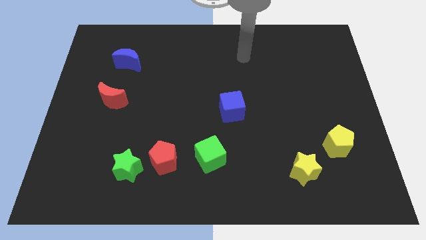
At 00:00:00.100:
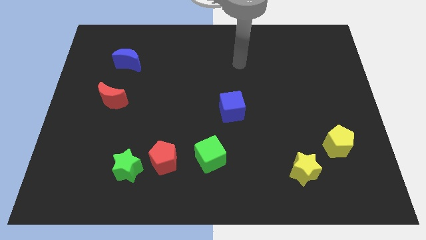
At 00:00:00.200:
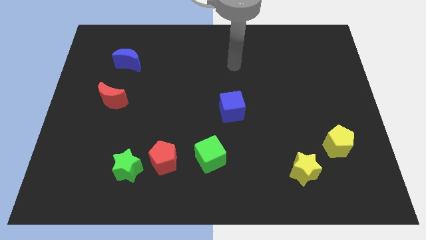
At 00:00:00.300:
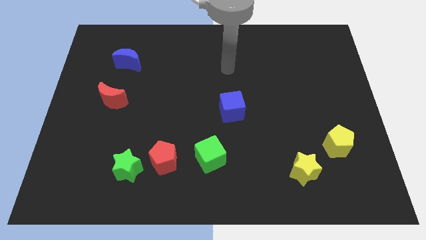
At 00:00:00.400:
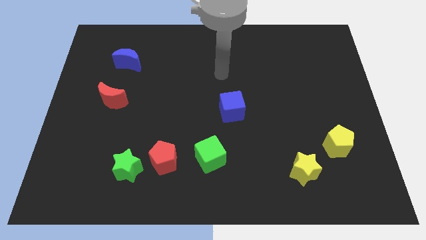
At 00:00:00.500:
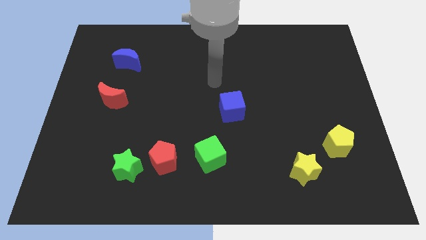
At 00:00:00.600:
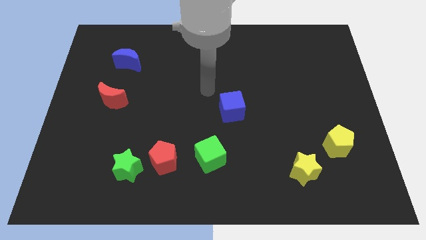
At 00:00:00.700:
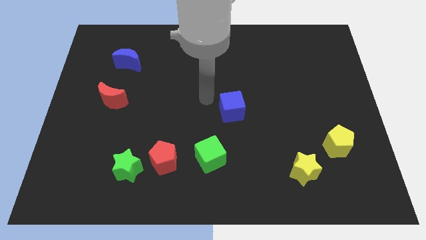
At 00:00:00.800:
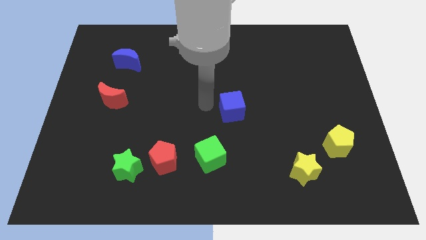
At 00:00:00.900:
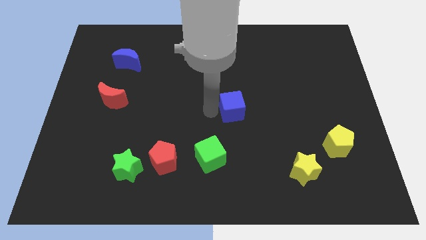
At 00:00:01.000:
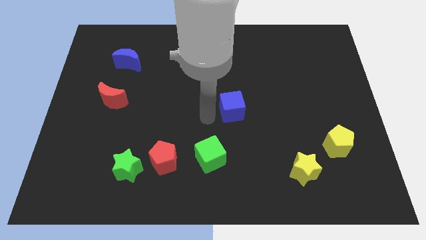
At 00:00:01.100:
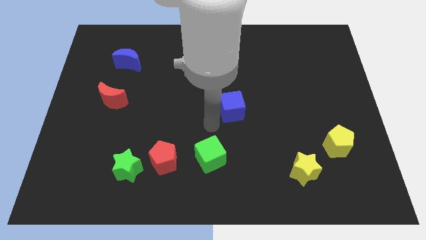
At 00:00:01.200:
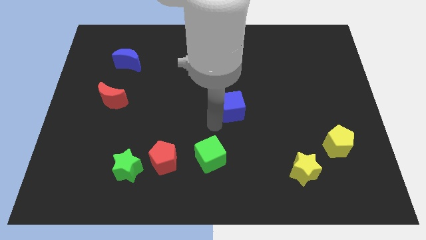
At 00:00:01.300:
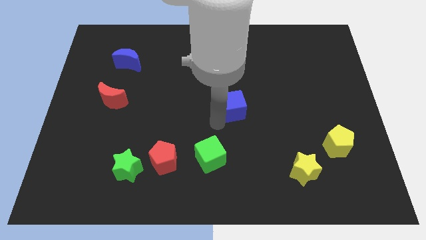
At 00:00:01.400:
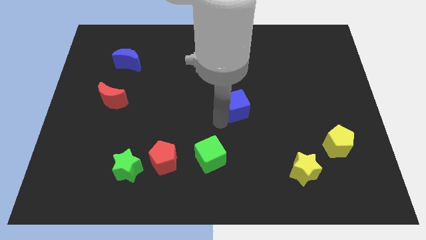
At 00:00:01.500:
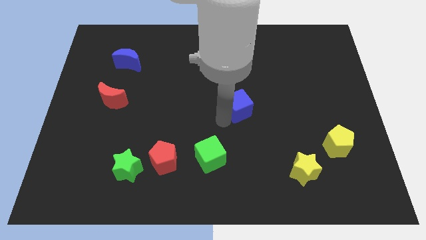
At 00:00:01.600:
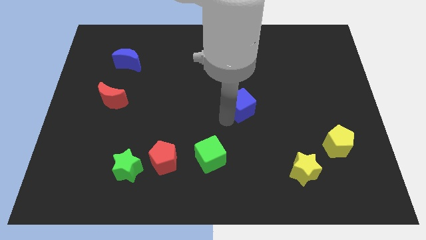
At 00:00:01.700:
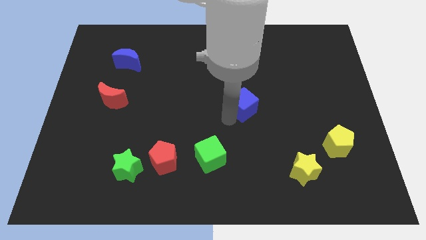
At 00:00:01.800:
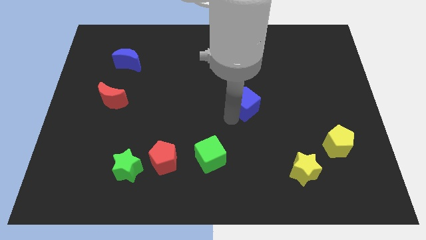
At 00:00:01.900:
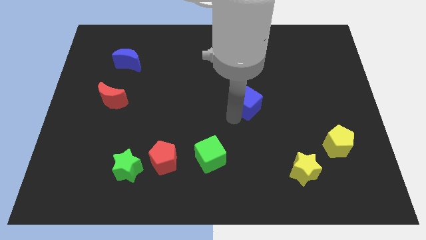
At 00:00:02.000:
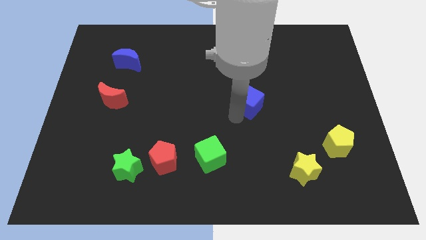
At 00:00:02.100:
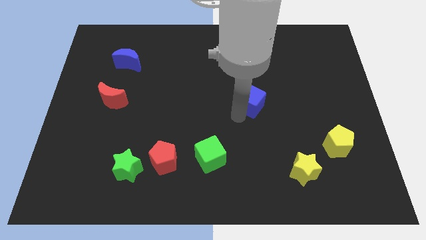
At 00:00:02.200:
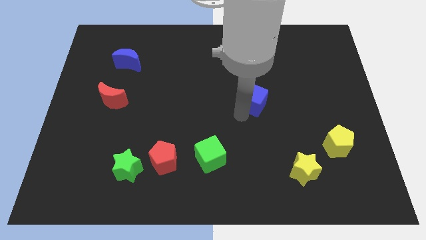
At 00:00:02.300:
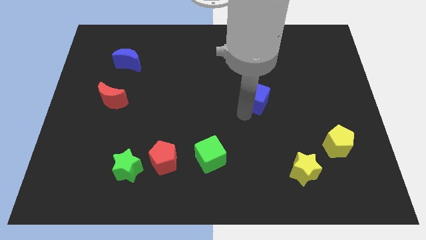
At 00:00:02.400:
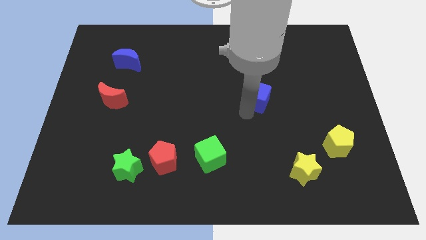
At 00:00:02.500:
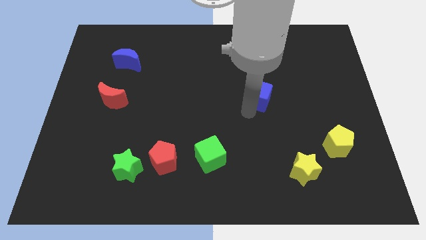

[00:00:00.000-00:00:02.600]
push the blue cube up and right a little bit

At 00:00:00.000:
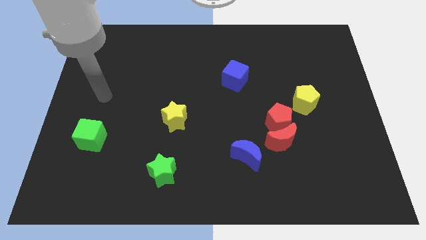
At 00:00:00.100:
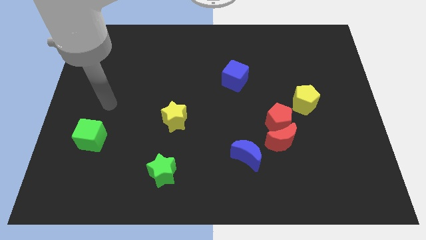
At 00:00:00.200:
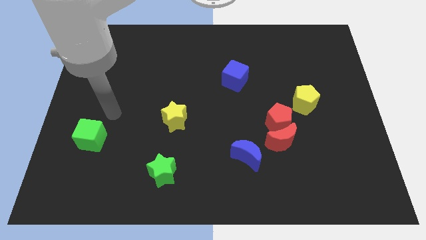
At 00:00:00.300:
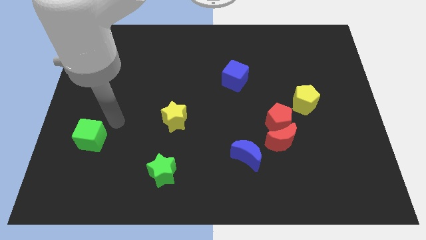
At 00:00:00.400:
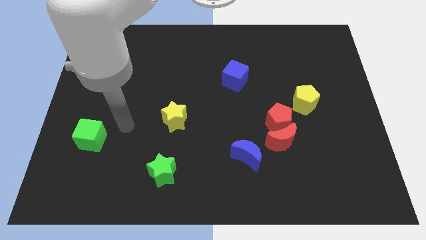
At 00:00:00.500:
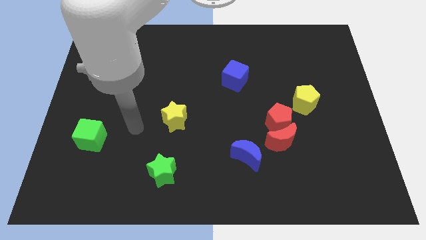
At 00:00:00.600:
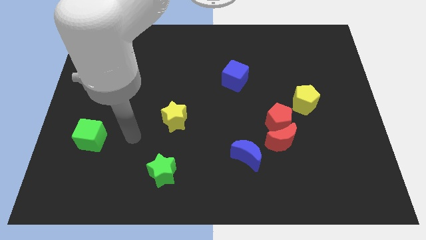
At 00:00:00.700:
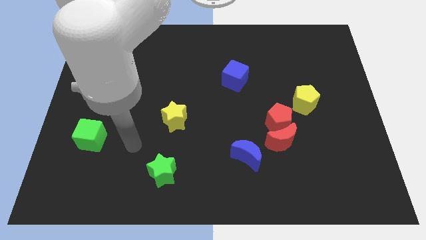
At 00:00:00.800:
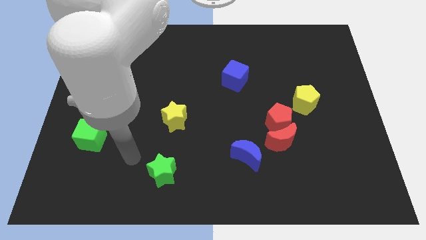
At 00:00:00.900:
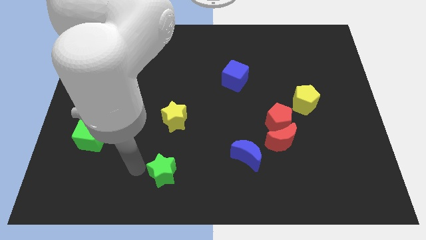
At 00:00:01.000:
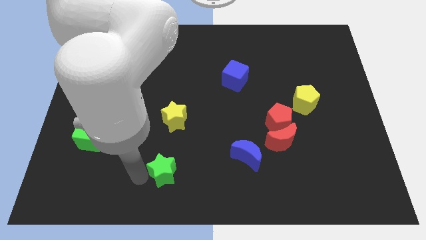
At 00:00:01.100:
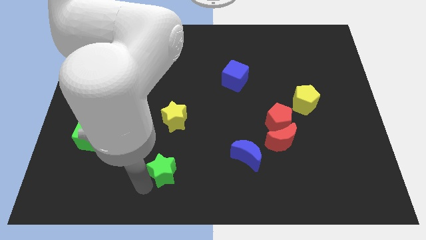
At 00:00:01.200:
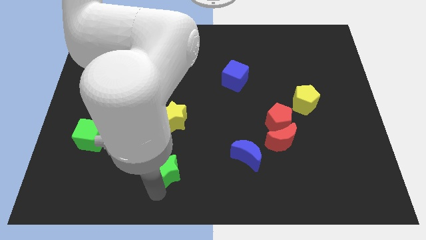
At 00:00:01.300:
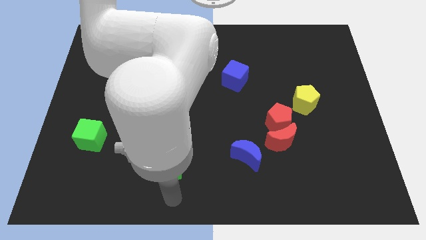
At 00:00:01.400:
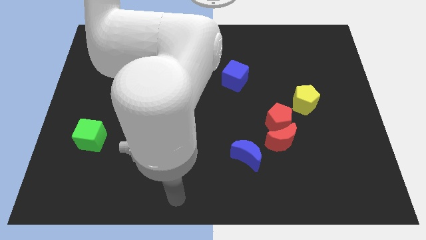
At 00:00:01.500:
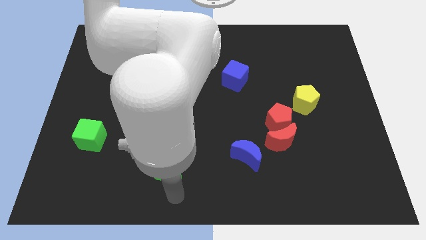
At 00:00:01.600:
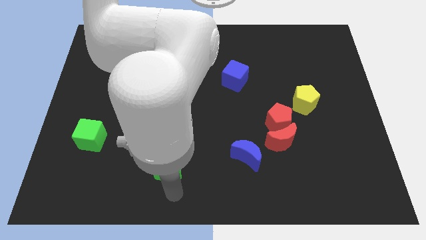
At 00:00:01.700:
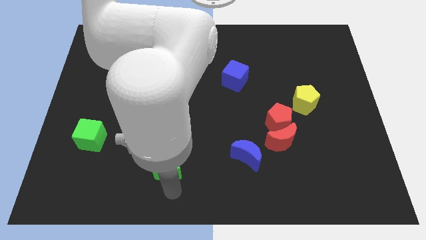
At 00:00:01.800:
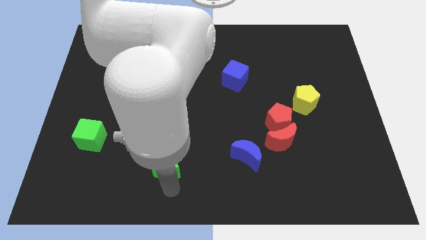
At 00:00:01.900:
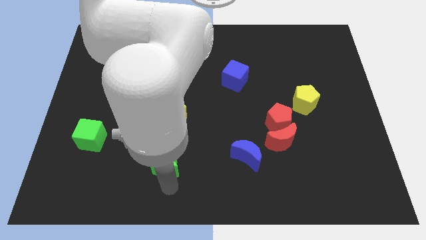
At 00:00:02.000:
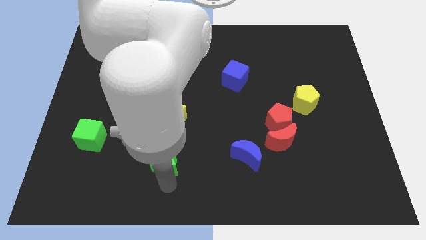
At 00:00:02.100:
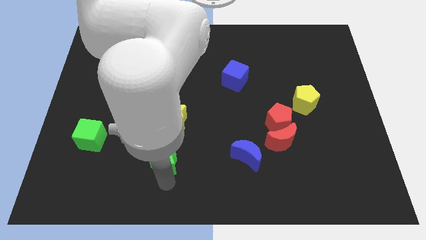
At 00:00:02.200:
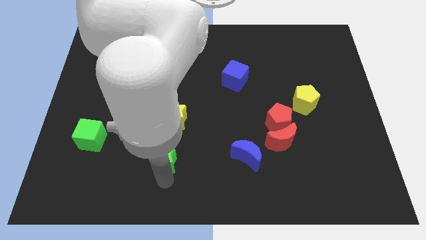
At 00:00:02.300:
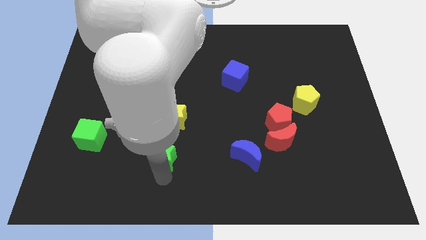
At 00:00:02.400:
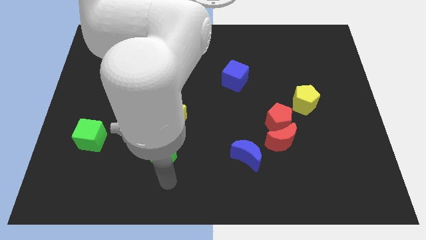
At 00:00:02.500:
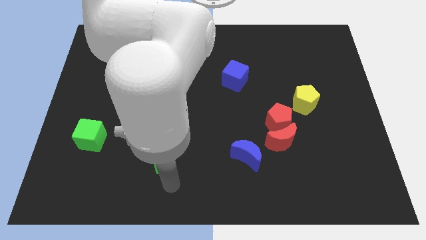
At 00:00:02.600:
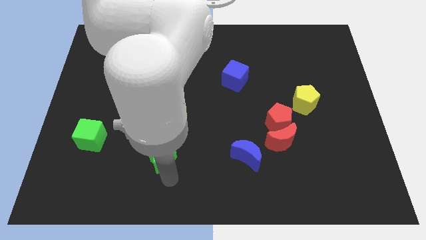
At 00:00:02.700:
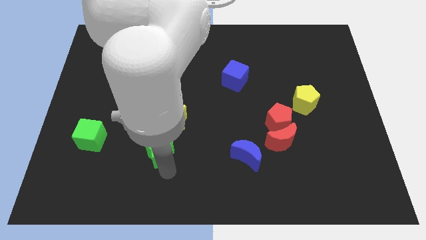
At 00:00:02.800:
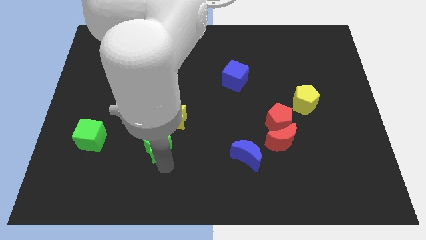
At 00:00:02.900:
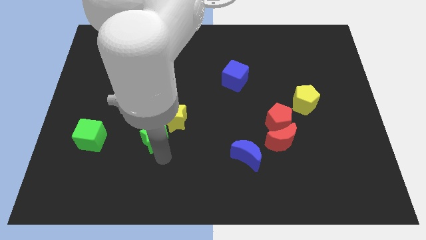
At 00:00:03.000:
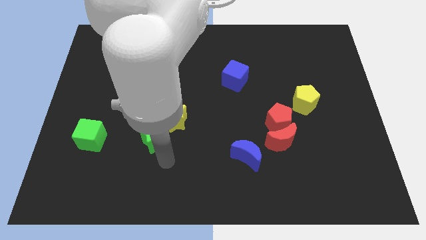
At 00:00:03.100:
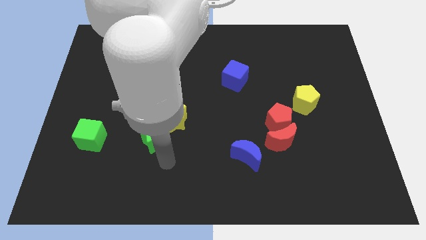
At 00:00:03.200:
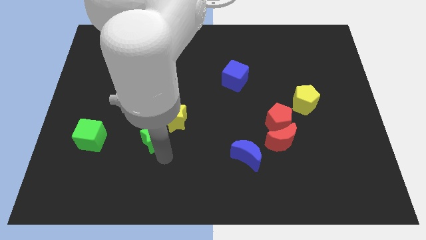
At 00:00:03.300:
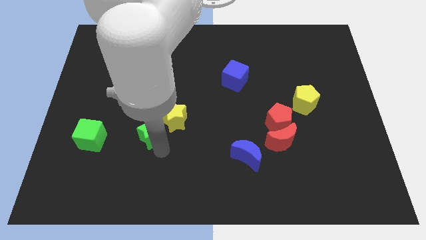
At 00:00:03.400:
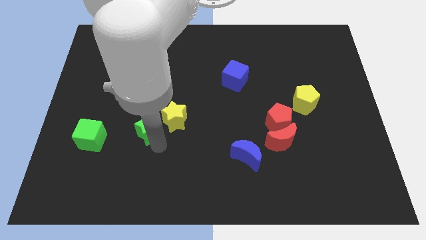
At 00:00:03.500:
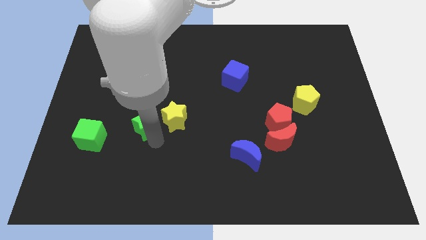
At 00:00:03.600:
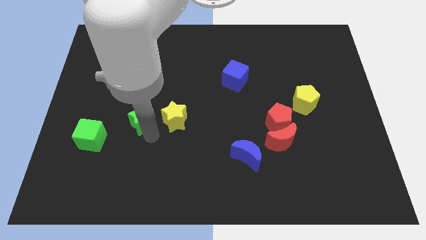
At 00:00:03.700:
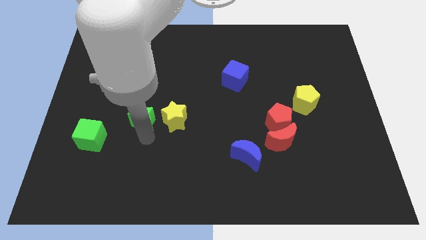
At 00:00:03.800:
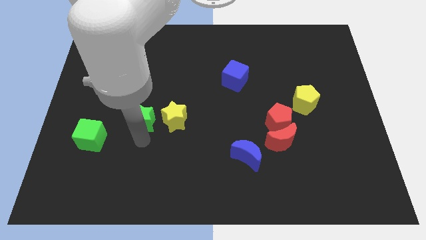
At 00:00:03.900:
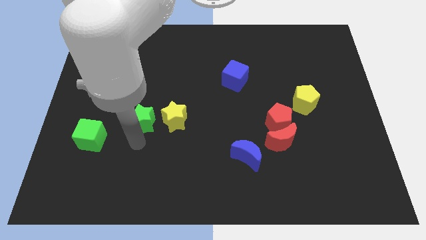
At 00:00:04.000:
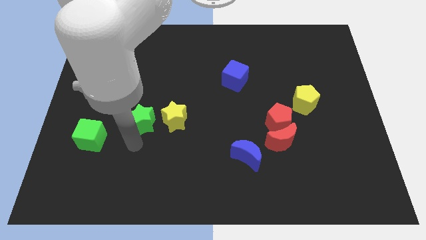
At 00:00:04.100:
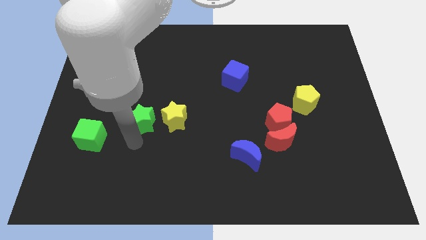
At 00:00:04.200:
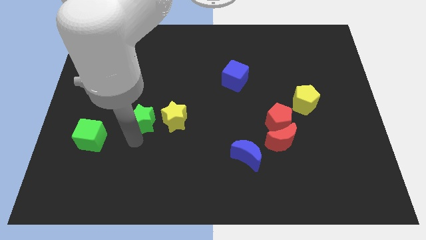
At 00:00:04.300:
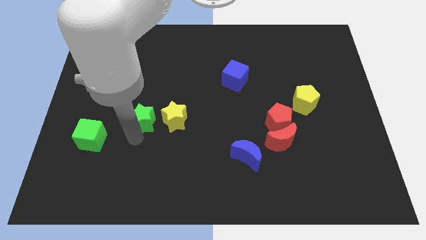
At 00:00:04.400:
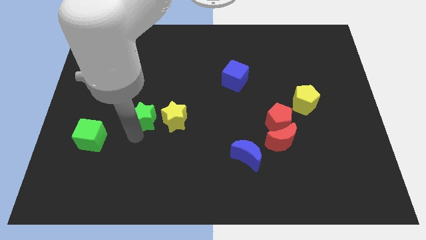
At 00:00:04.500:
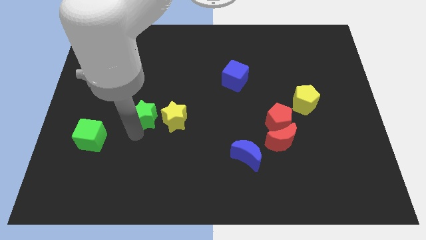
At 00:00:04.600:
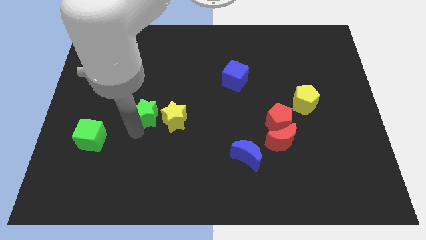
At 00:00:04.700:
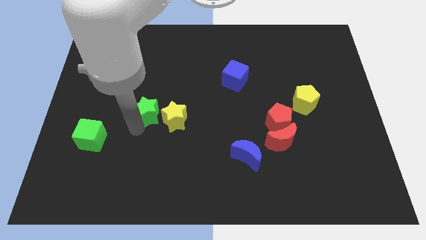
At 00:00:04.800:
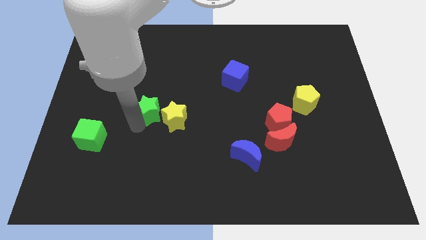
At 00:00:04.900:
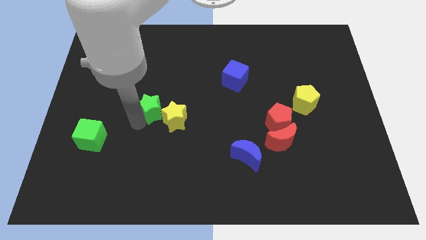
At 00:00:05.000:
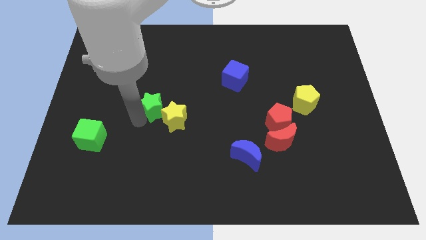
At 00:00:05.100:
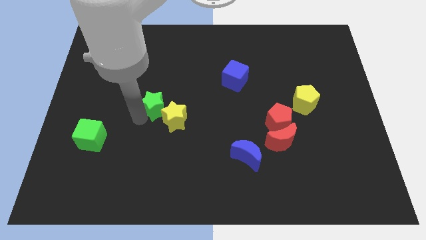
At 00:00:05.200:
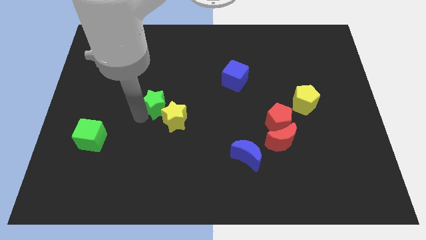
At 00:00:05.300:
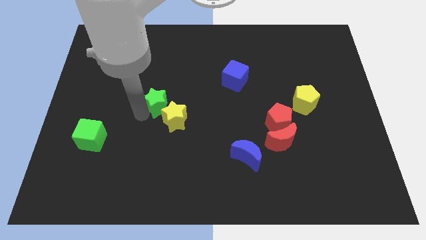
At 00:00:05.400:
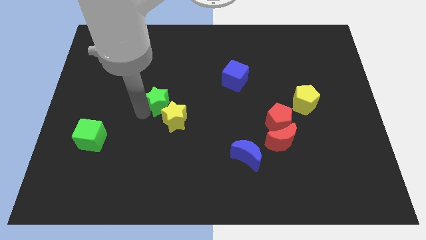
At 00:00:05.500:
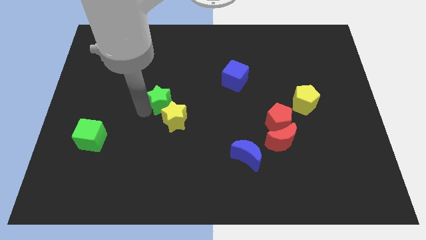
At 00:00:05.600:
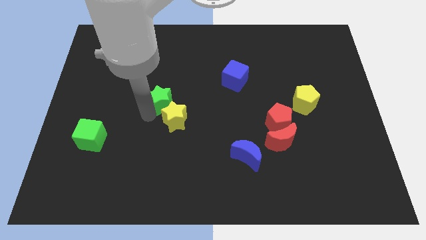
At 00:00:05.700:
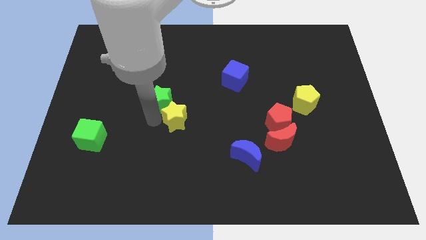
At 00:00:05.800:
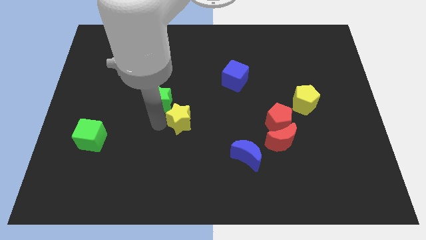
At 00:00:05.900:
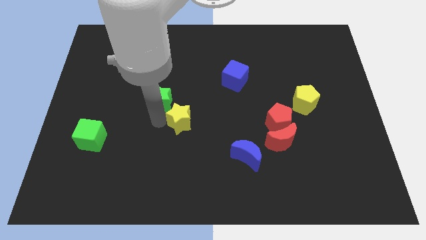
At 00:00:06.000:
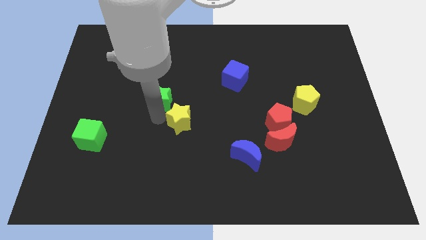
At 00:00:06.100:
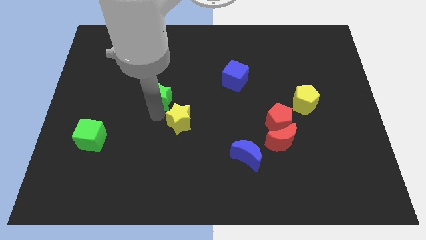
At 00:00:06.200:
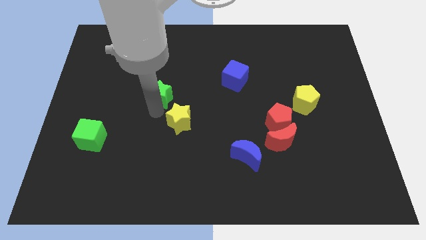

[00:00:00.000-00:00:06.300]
push the green star up
